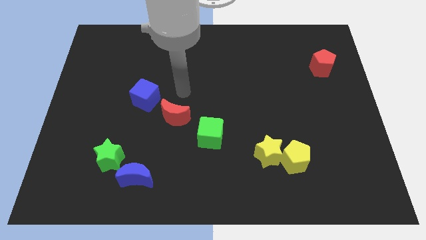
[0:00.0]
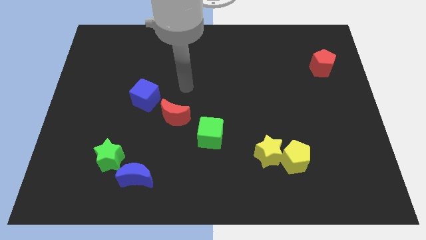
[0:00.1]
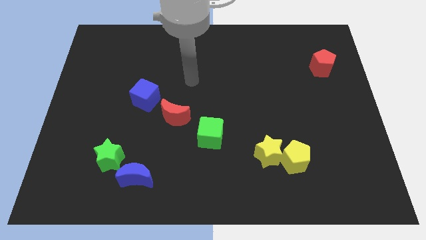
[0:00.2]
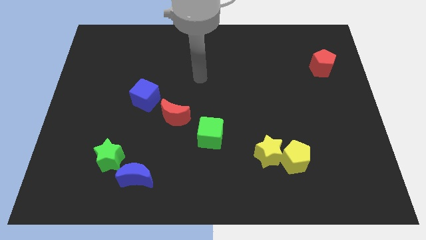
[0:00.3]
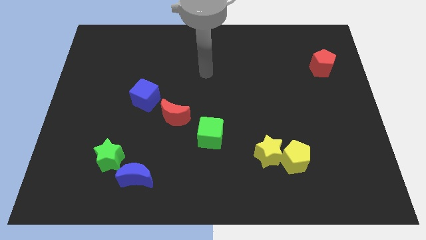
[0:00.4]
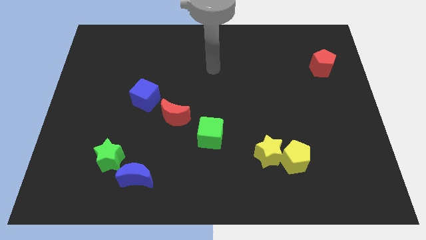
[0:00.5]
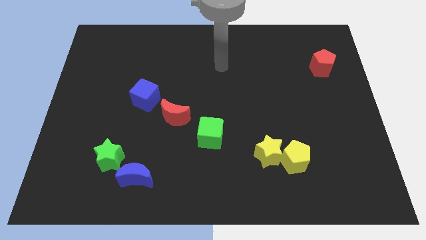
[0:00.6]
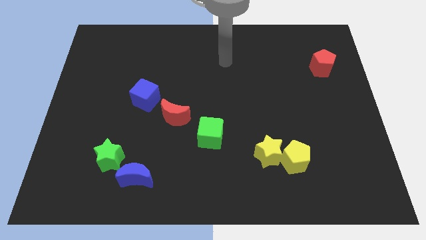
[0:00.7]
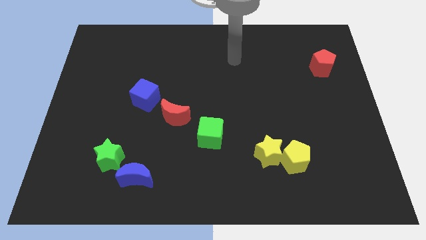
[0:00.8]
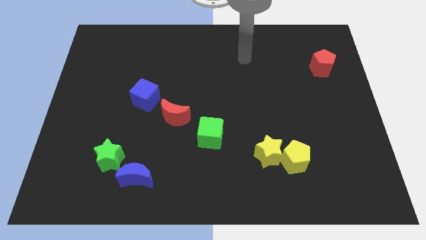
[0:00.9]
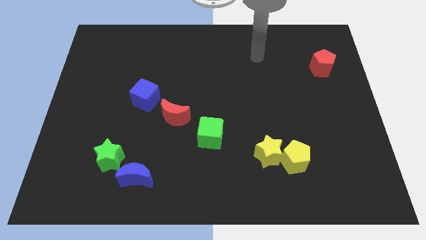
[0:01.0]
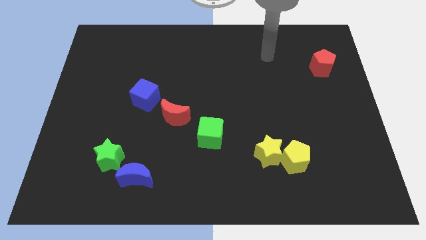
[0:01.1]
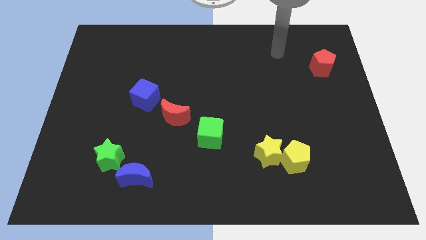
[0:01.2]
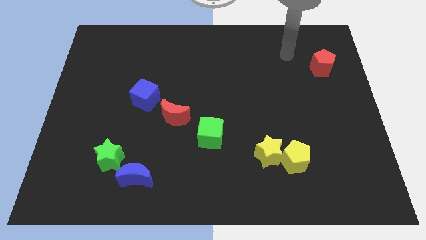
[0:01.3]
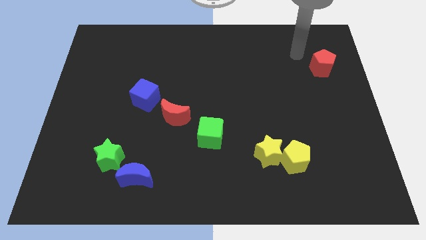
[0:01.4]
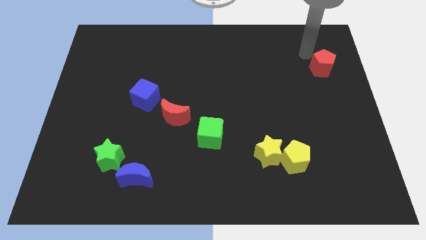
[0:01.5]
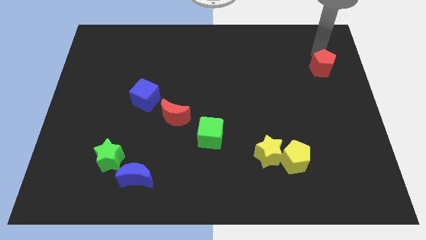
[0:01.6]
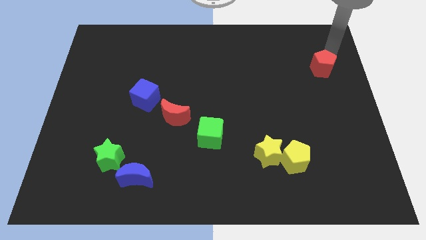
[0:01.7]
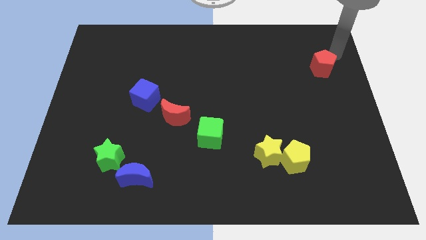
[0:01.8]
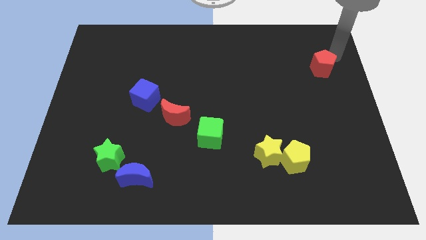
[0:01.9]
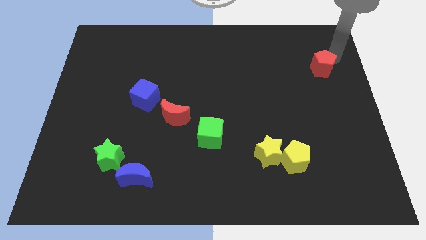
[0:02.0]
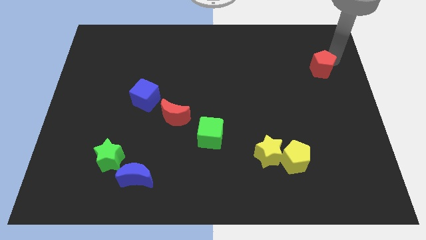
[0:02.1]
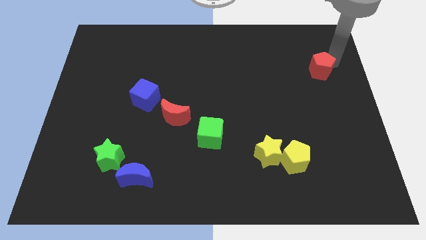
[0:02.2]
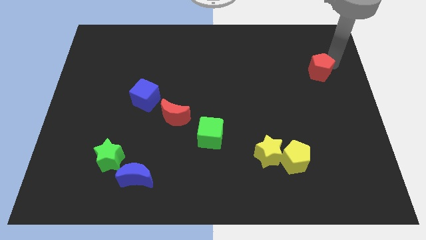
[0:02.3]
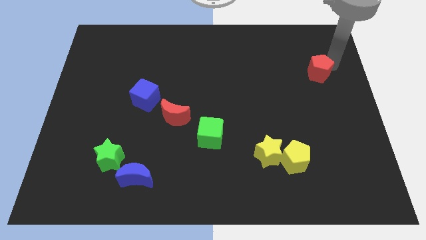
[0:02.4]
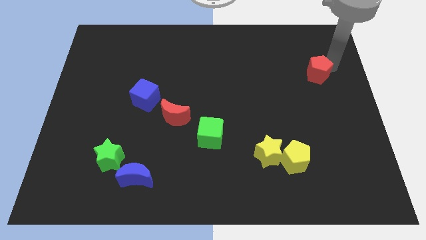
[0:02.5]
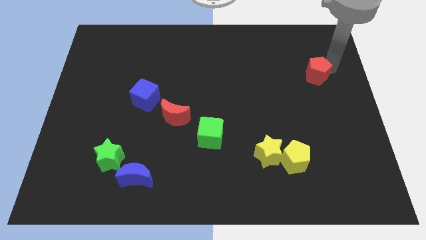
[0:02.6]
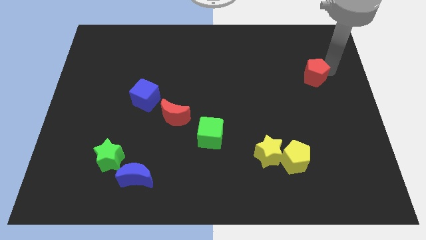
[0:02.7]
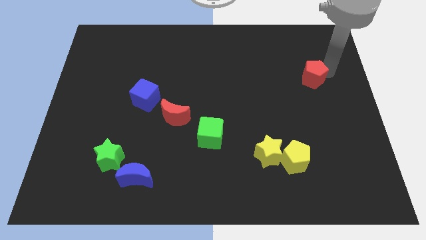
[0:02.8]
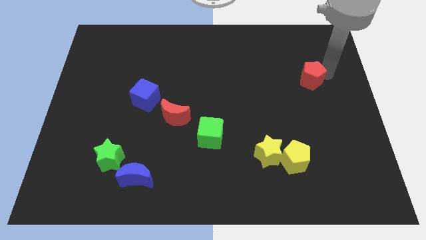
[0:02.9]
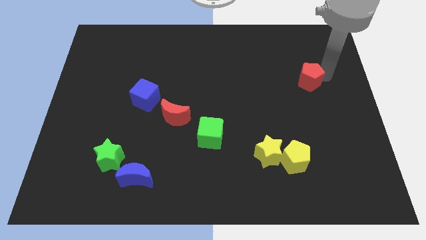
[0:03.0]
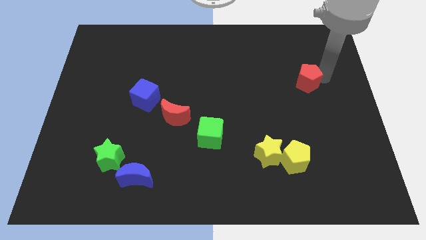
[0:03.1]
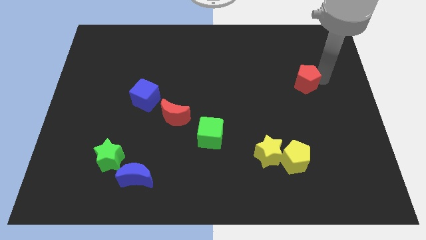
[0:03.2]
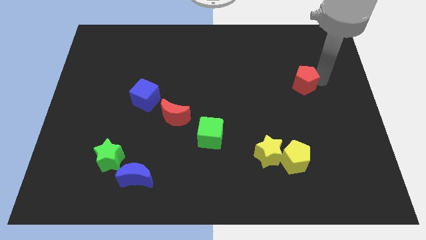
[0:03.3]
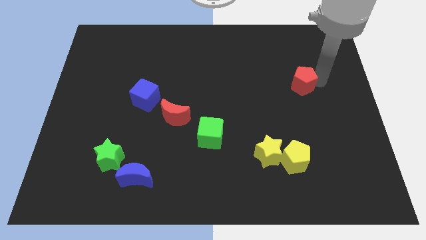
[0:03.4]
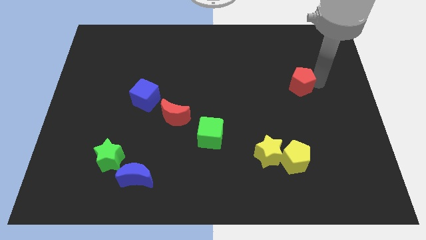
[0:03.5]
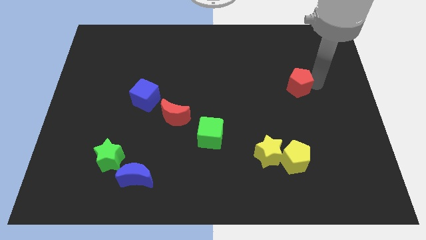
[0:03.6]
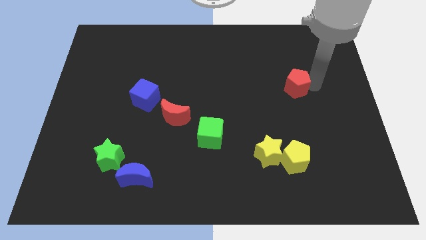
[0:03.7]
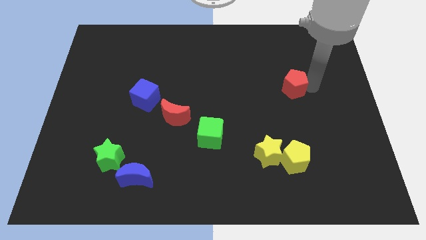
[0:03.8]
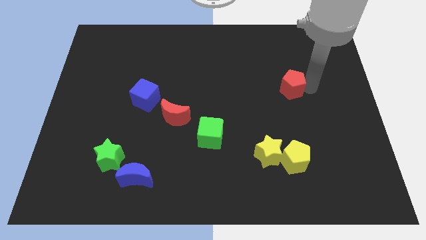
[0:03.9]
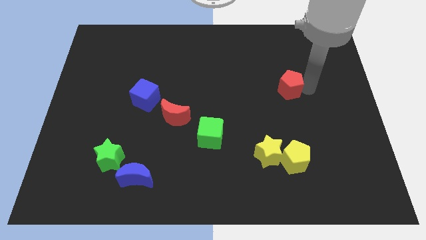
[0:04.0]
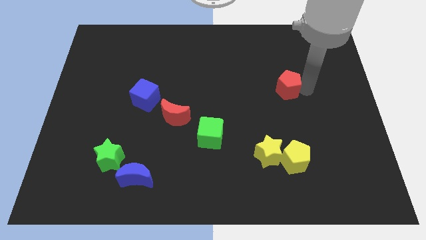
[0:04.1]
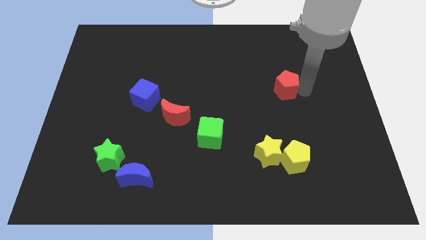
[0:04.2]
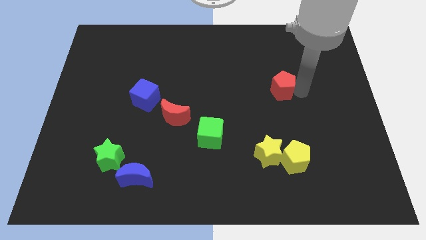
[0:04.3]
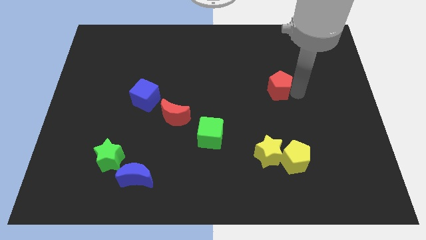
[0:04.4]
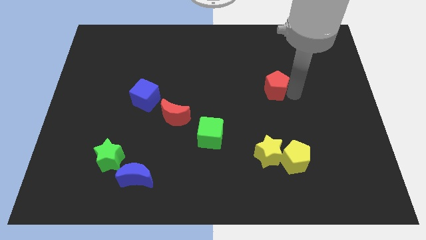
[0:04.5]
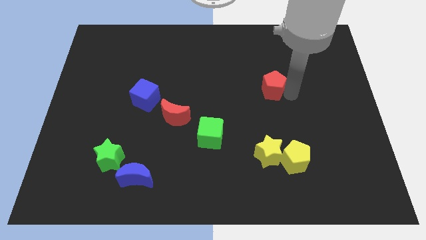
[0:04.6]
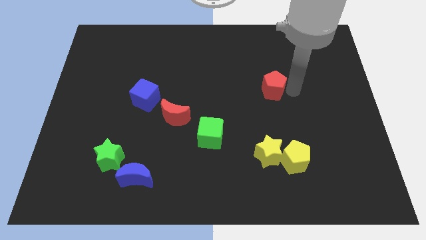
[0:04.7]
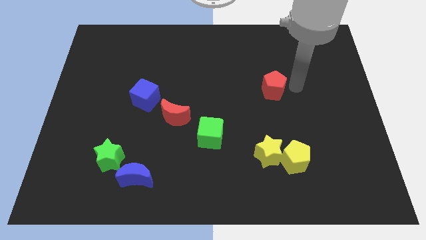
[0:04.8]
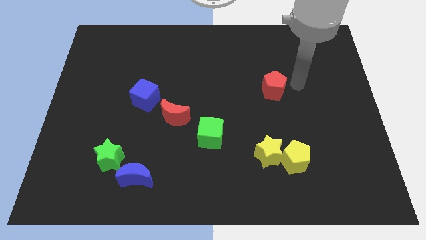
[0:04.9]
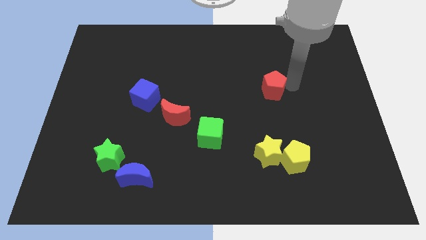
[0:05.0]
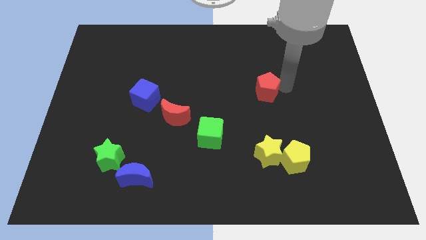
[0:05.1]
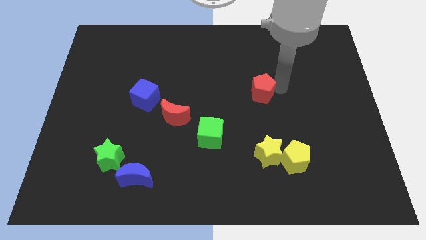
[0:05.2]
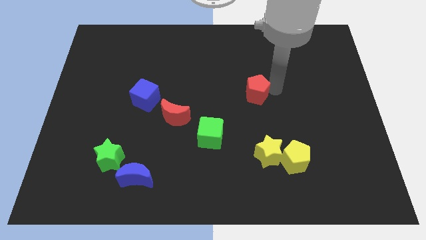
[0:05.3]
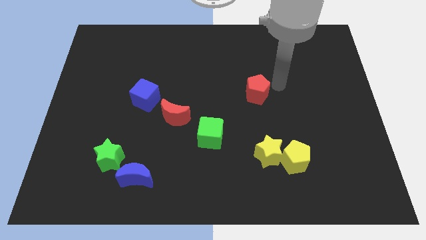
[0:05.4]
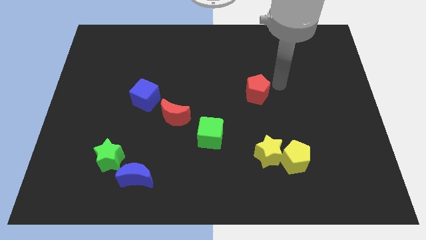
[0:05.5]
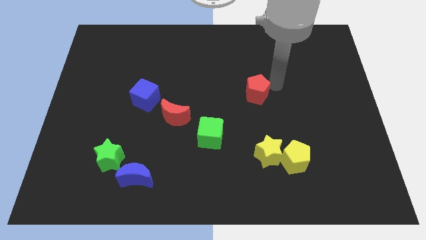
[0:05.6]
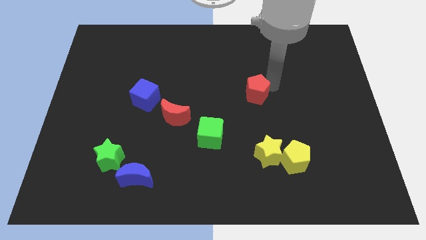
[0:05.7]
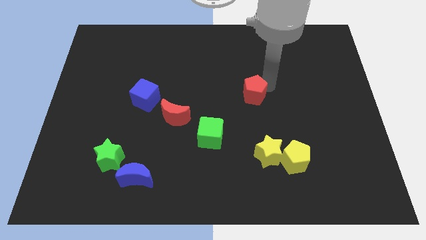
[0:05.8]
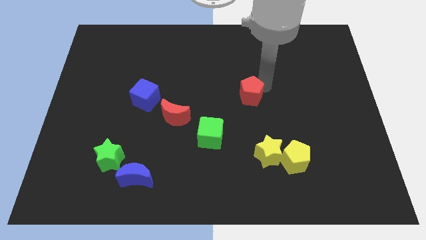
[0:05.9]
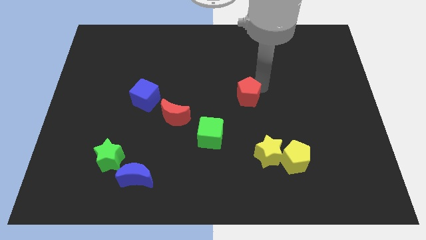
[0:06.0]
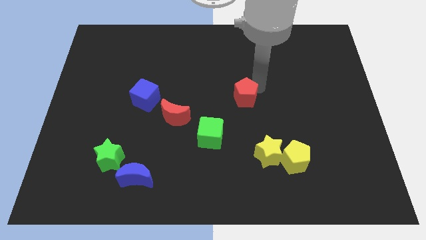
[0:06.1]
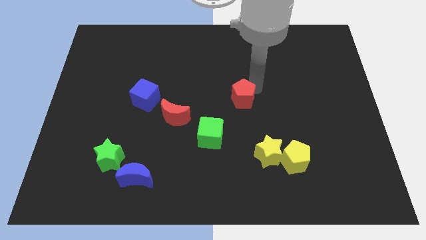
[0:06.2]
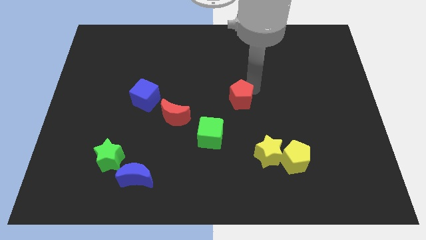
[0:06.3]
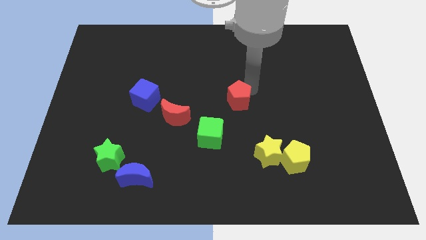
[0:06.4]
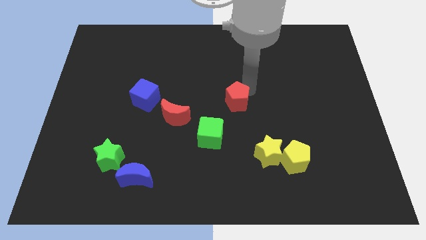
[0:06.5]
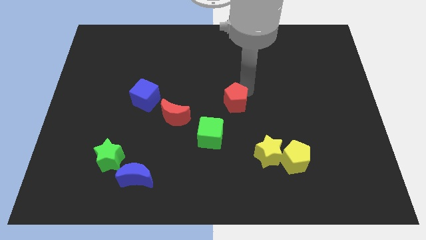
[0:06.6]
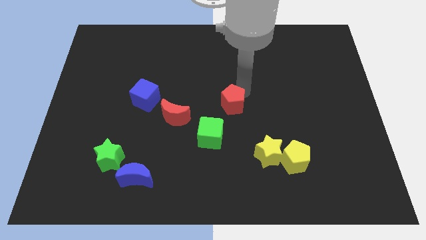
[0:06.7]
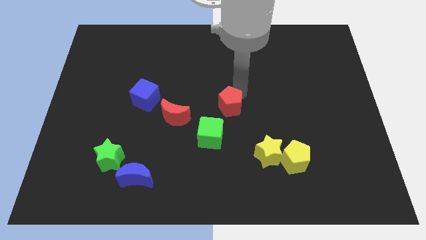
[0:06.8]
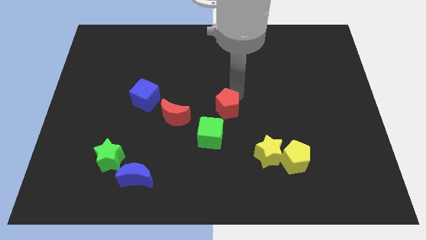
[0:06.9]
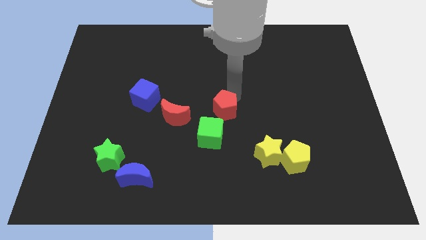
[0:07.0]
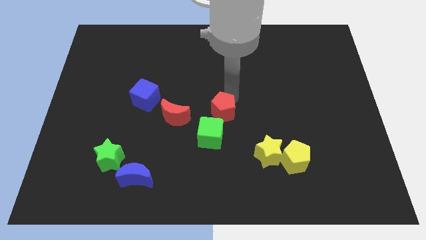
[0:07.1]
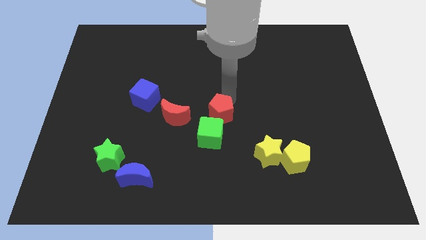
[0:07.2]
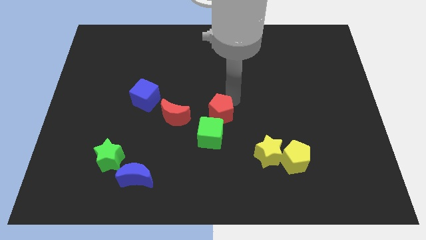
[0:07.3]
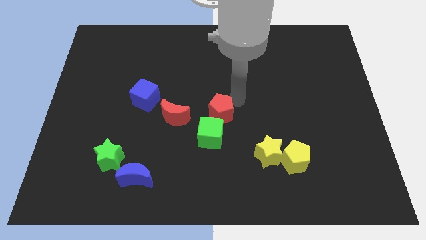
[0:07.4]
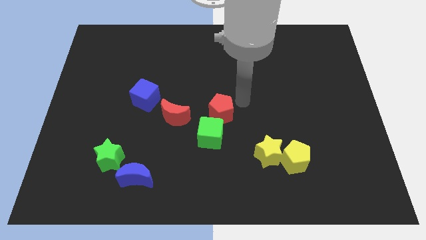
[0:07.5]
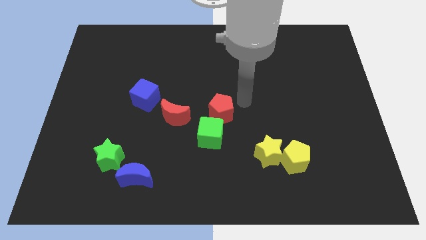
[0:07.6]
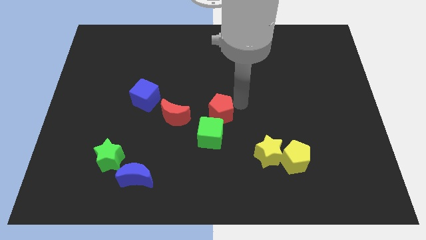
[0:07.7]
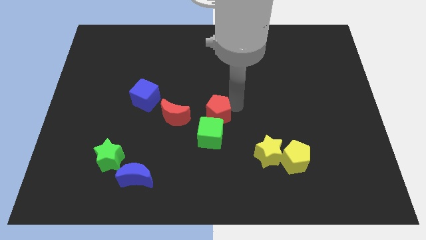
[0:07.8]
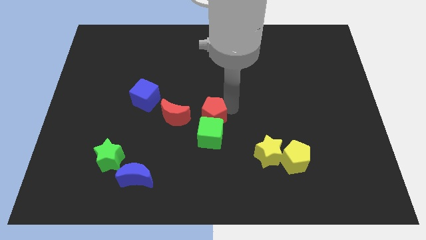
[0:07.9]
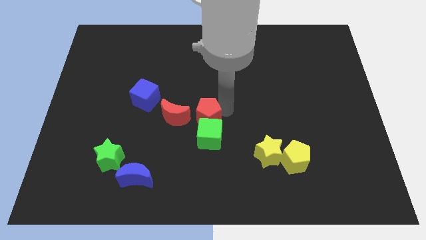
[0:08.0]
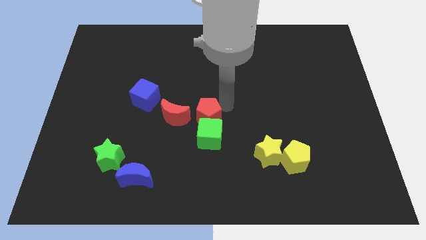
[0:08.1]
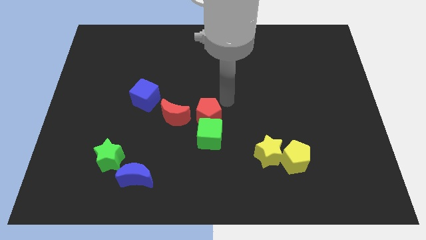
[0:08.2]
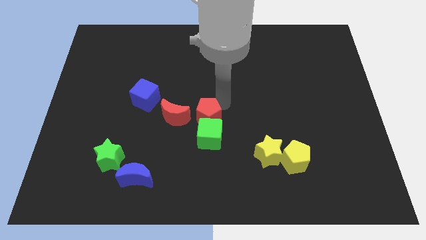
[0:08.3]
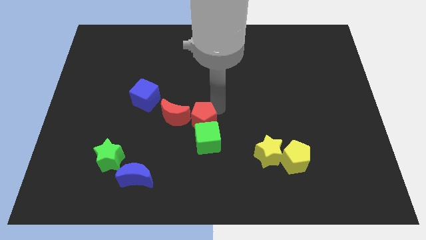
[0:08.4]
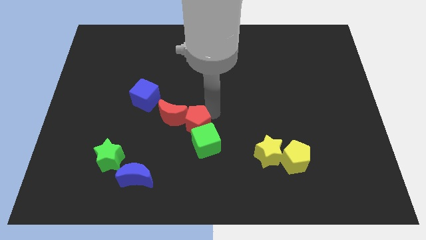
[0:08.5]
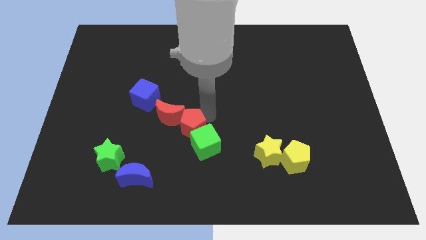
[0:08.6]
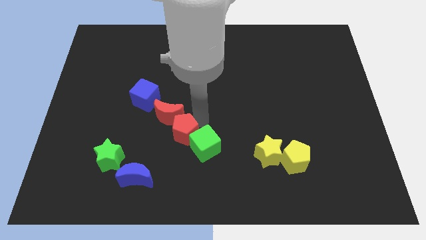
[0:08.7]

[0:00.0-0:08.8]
push the red pentagon to the bottom side of the red moon
